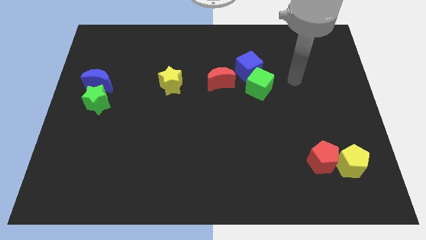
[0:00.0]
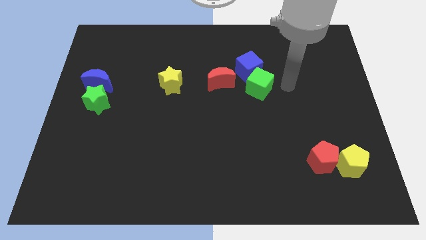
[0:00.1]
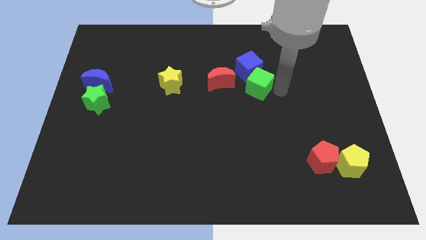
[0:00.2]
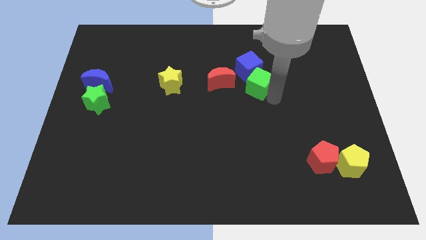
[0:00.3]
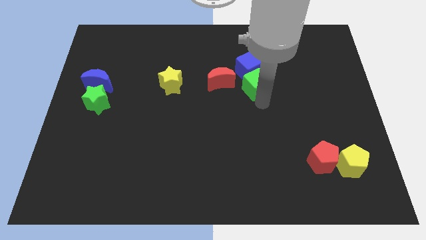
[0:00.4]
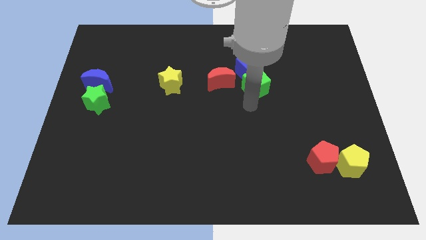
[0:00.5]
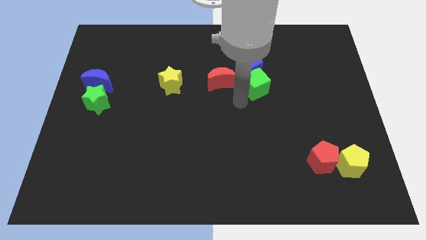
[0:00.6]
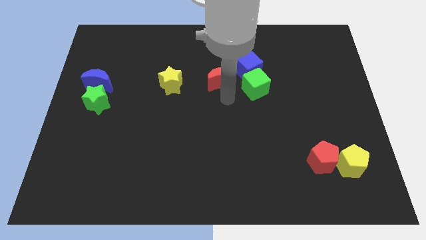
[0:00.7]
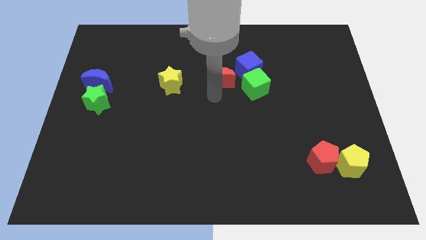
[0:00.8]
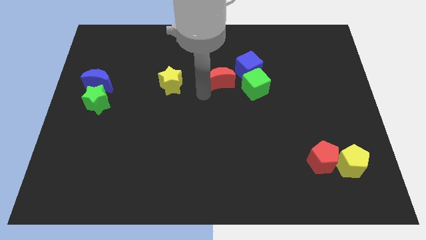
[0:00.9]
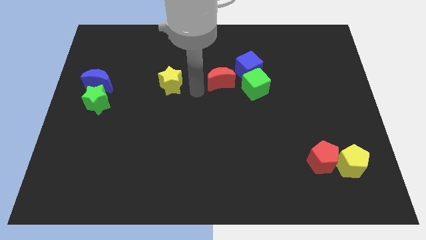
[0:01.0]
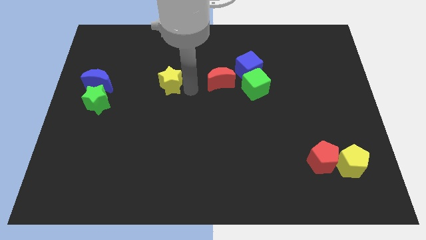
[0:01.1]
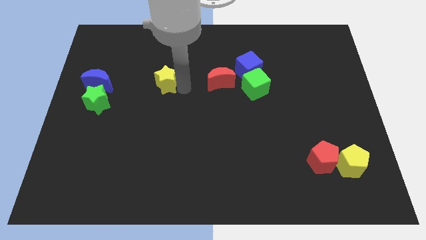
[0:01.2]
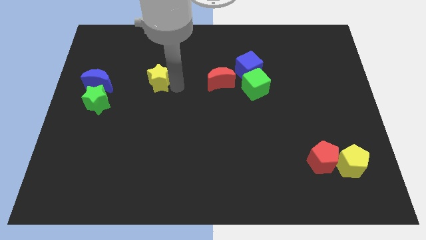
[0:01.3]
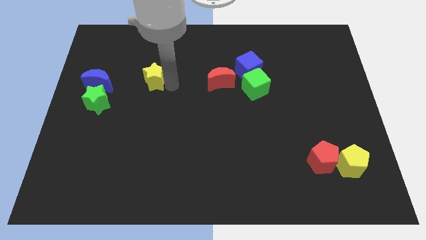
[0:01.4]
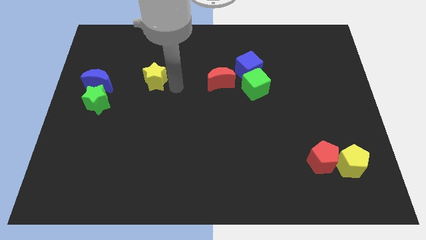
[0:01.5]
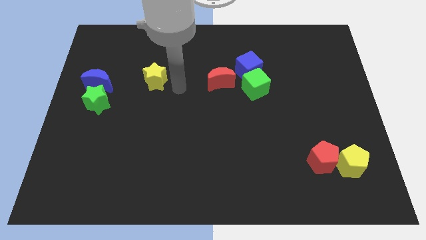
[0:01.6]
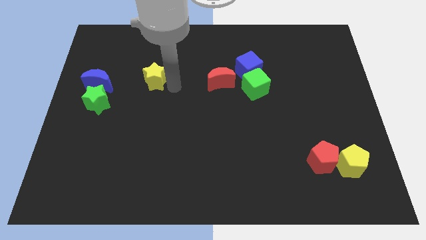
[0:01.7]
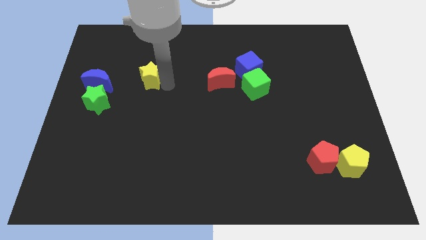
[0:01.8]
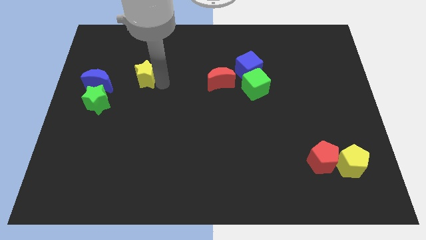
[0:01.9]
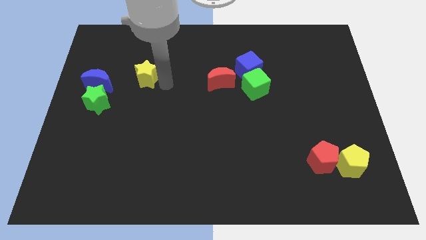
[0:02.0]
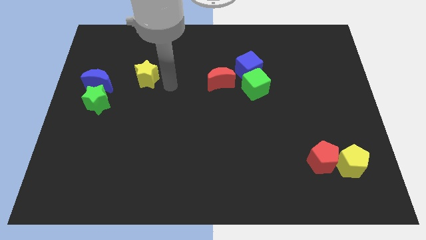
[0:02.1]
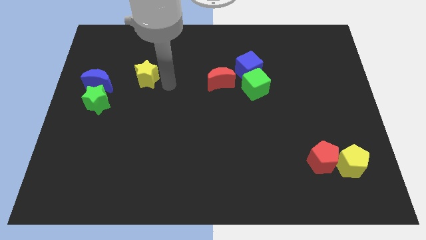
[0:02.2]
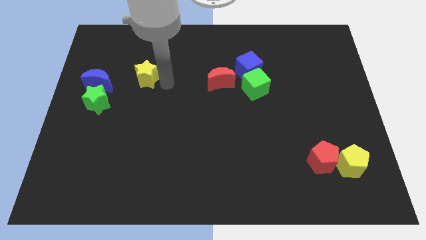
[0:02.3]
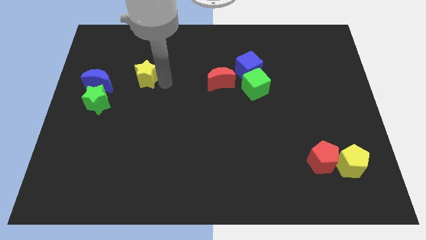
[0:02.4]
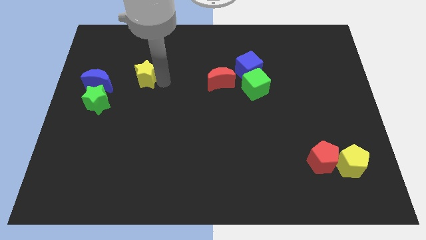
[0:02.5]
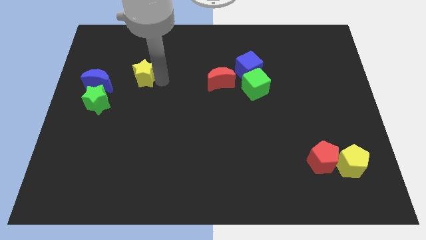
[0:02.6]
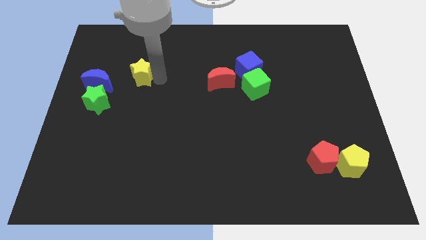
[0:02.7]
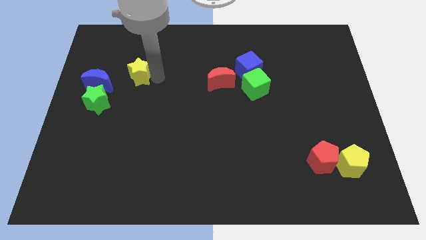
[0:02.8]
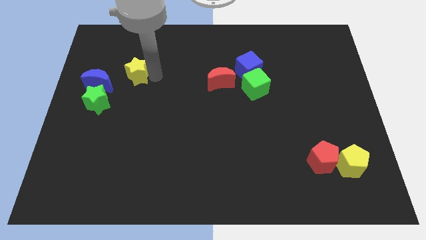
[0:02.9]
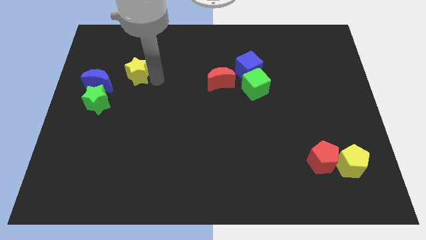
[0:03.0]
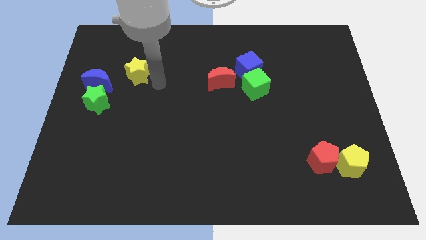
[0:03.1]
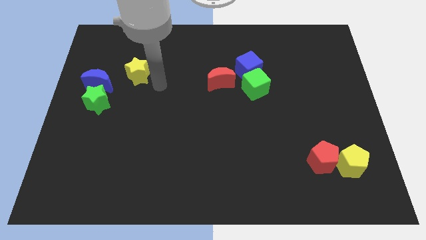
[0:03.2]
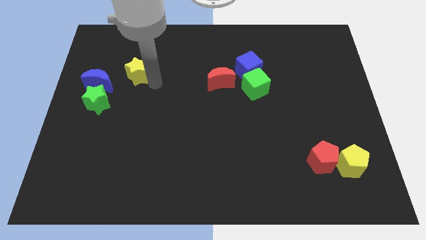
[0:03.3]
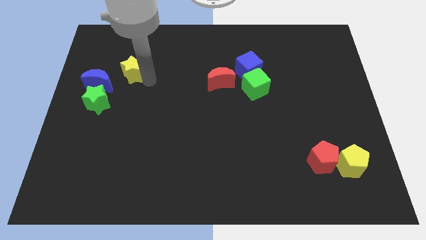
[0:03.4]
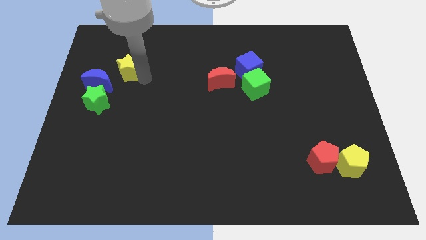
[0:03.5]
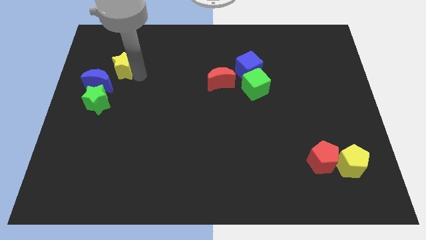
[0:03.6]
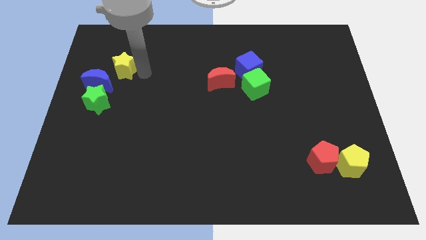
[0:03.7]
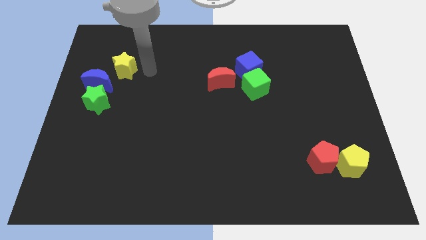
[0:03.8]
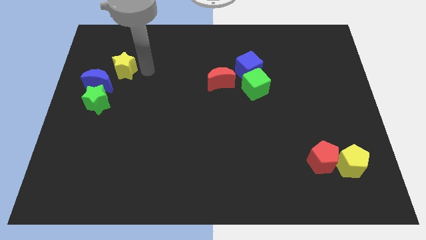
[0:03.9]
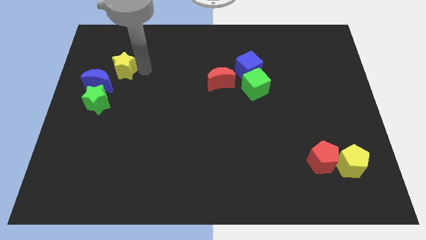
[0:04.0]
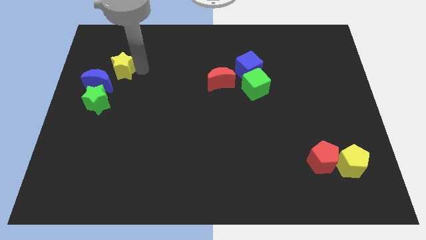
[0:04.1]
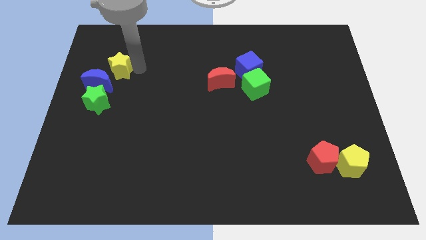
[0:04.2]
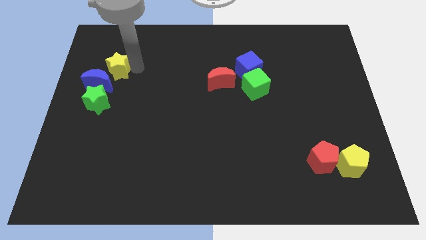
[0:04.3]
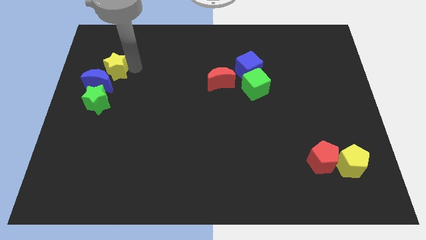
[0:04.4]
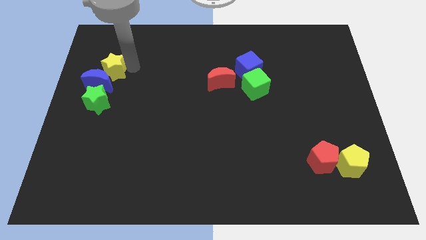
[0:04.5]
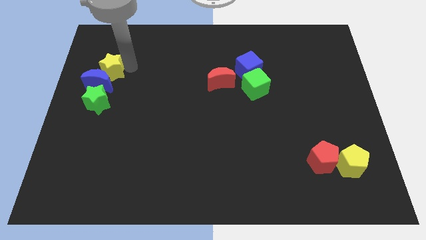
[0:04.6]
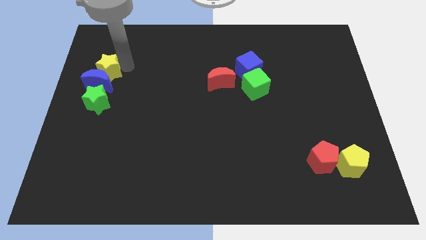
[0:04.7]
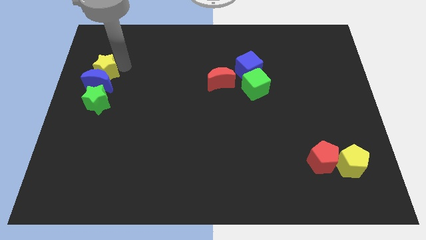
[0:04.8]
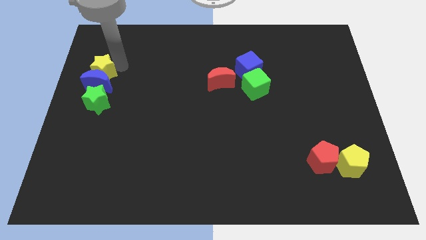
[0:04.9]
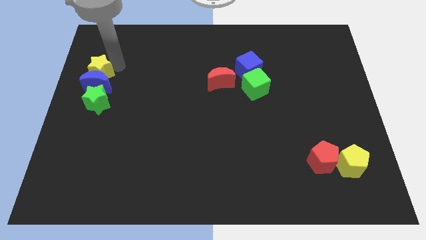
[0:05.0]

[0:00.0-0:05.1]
push the yellow star to the left side

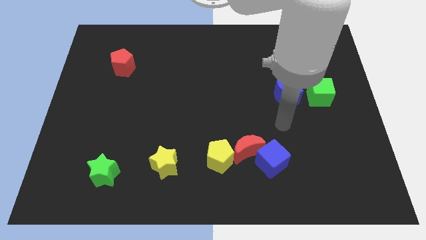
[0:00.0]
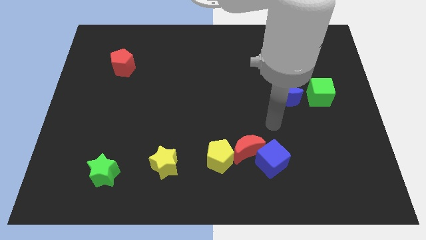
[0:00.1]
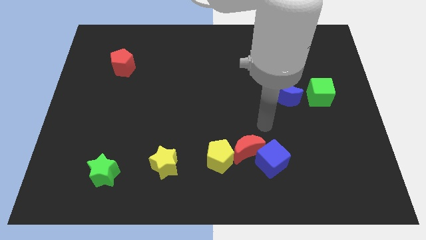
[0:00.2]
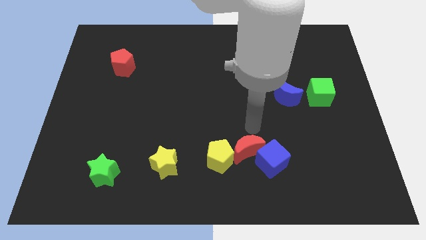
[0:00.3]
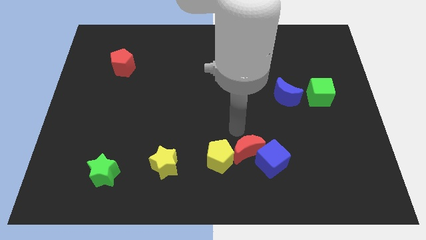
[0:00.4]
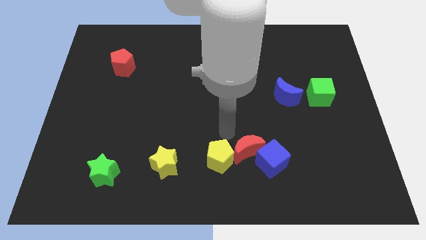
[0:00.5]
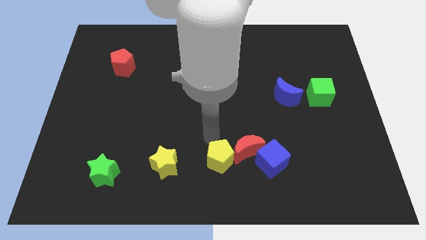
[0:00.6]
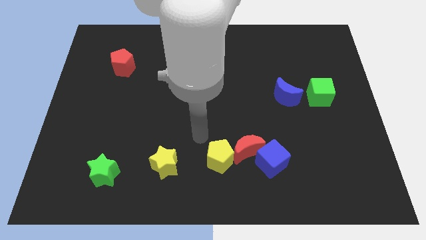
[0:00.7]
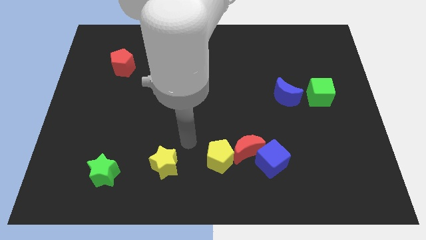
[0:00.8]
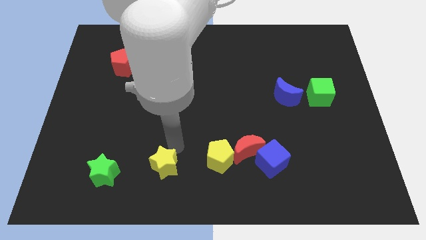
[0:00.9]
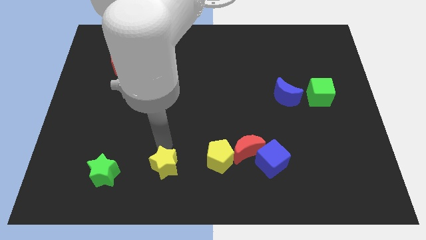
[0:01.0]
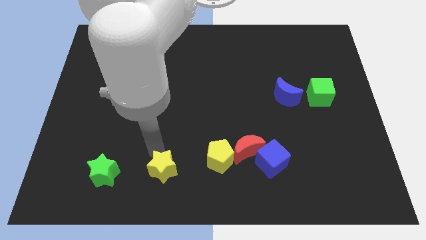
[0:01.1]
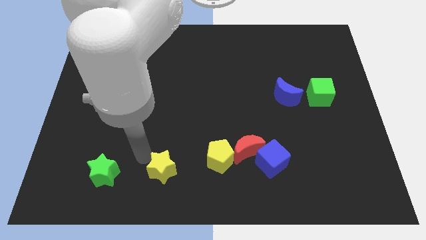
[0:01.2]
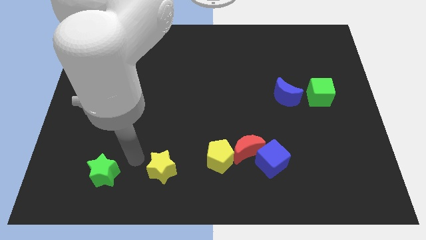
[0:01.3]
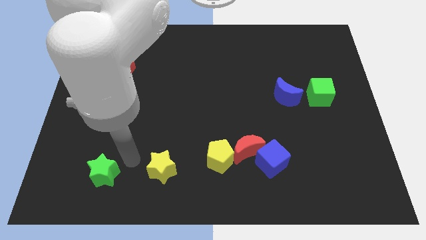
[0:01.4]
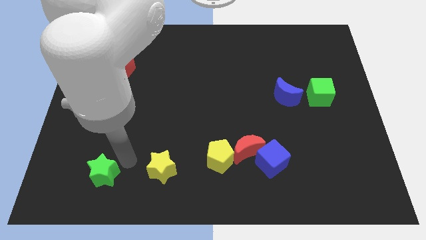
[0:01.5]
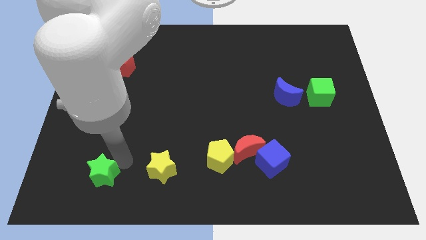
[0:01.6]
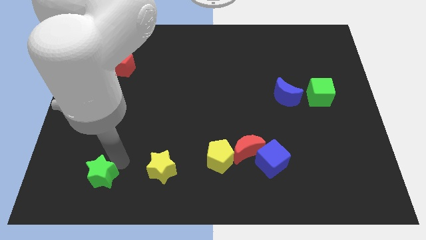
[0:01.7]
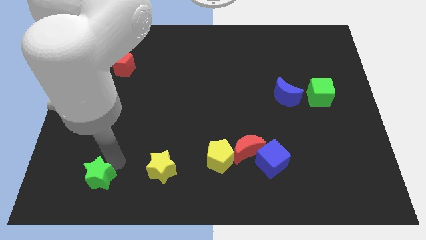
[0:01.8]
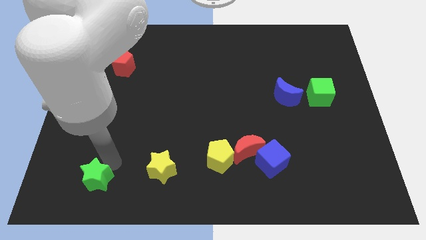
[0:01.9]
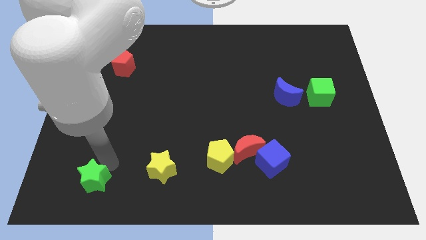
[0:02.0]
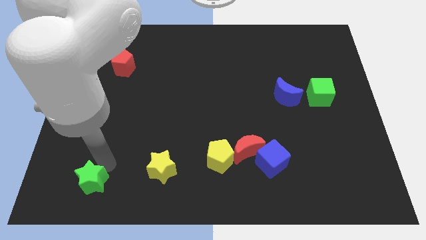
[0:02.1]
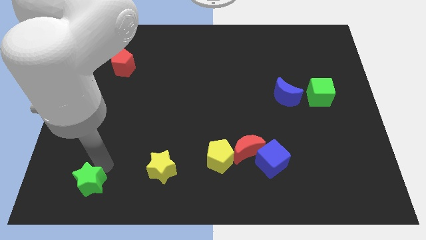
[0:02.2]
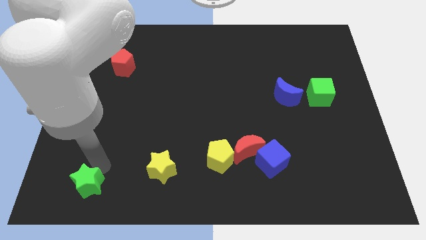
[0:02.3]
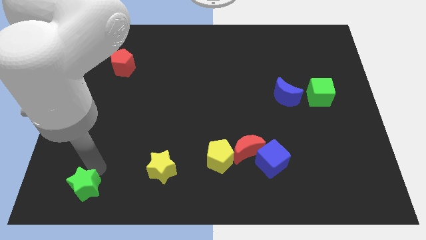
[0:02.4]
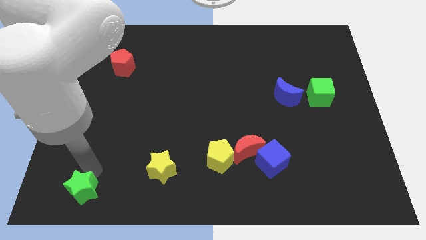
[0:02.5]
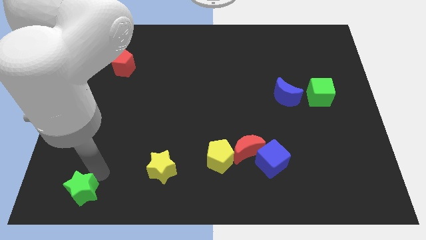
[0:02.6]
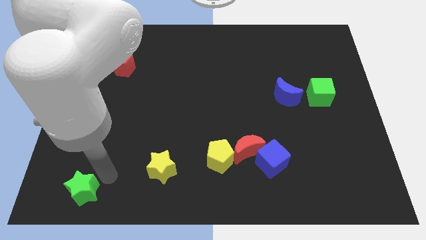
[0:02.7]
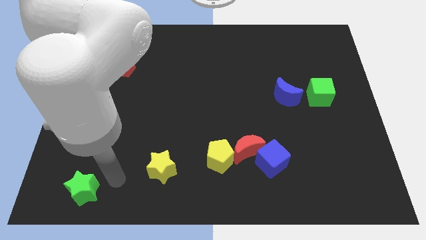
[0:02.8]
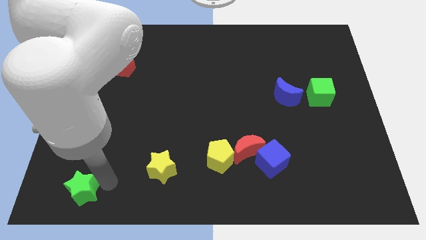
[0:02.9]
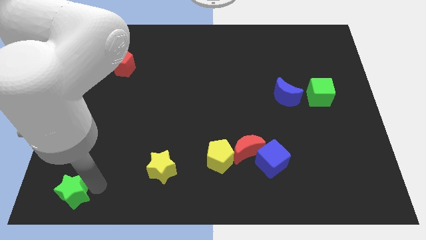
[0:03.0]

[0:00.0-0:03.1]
push the green star to the bottom left corner
